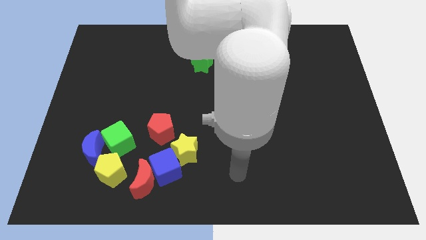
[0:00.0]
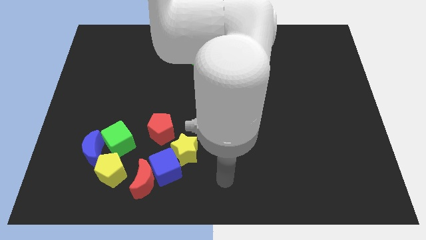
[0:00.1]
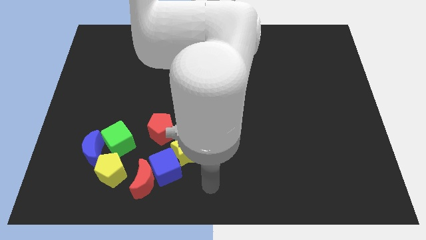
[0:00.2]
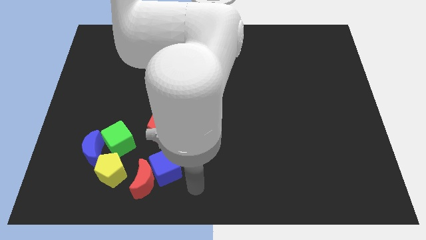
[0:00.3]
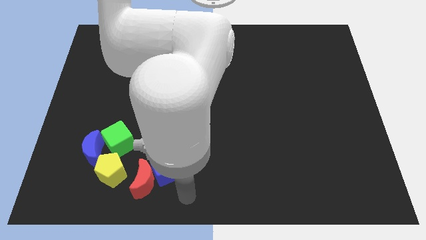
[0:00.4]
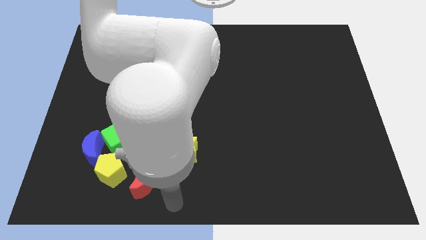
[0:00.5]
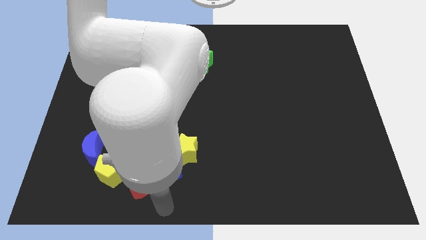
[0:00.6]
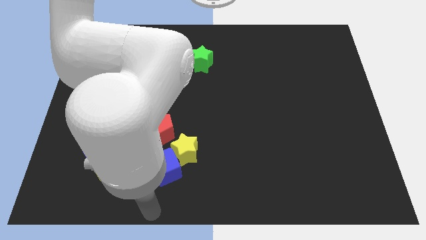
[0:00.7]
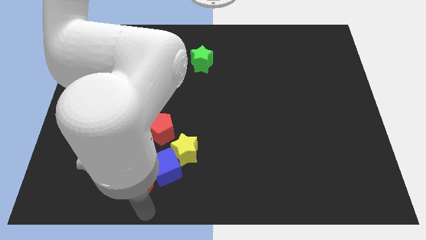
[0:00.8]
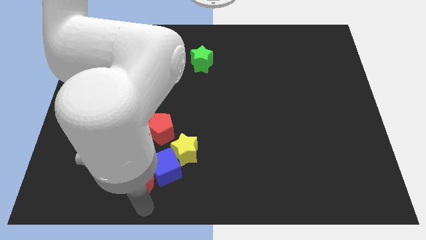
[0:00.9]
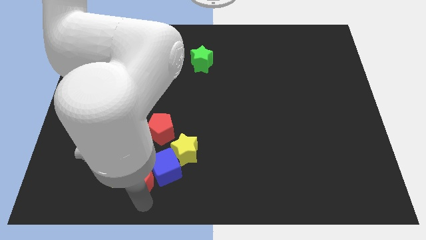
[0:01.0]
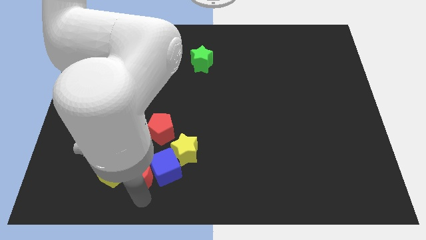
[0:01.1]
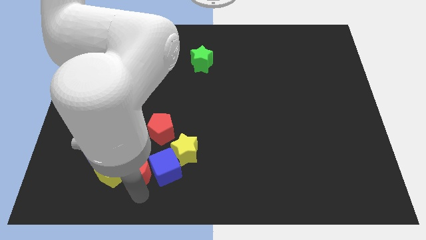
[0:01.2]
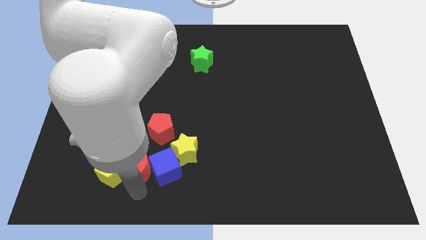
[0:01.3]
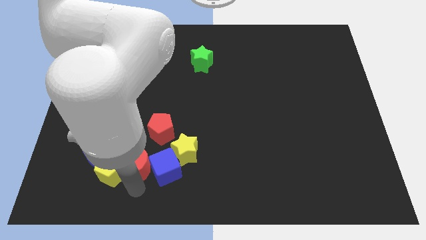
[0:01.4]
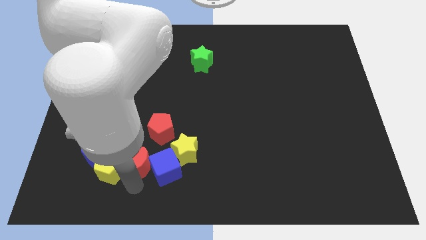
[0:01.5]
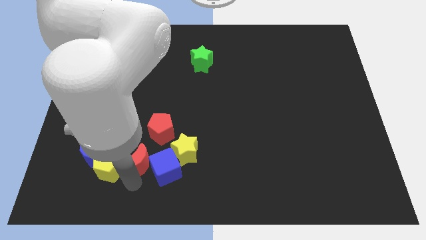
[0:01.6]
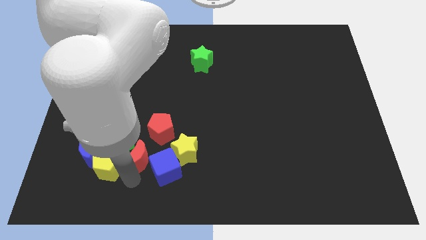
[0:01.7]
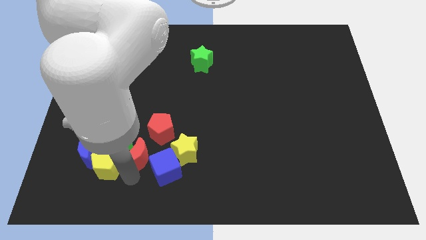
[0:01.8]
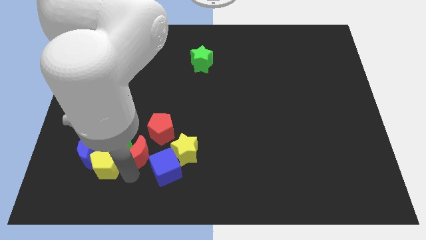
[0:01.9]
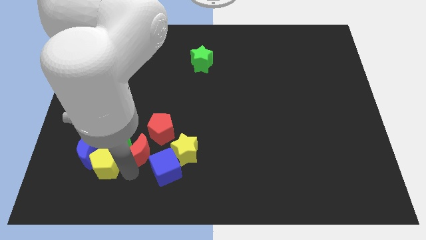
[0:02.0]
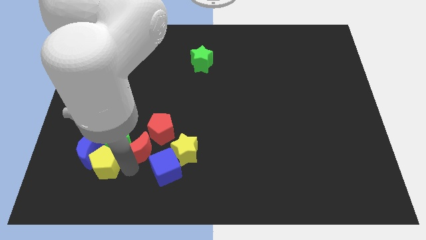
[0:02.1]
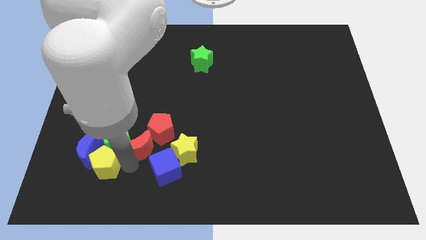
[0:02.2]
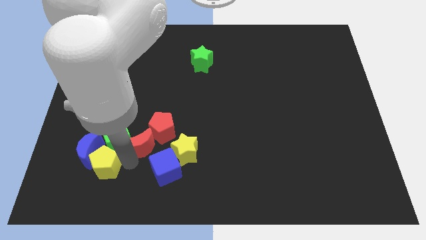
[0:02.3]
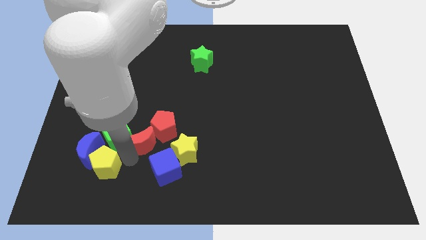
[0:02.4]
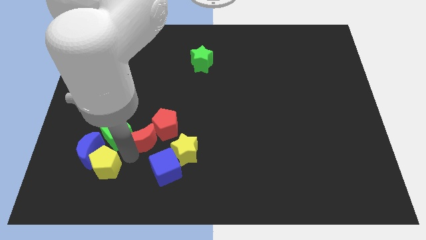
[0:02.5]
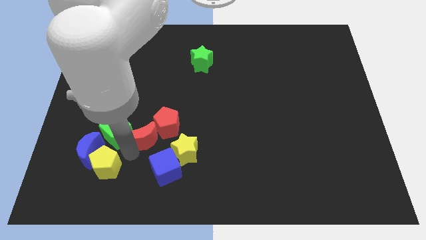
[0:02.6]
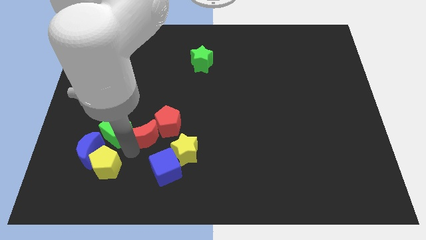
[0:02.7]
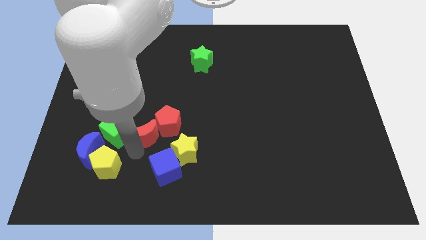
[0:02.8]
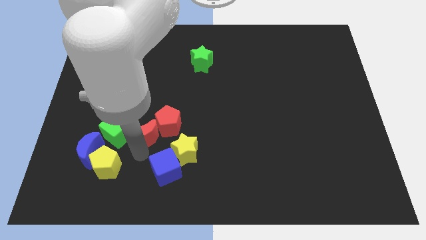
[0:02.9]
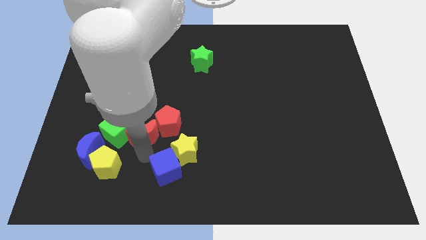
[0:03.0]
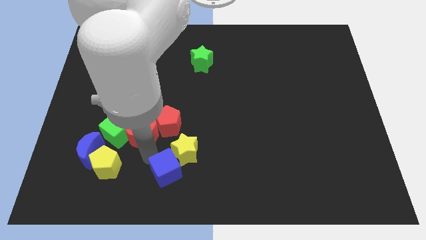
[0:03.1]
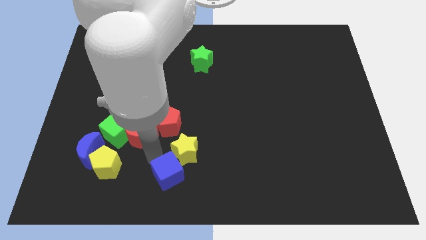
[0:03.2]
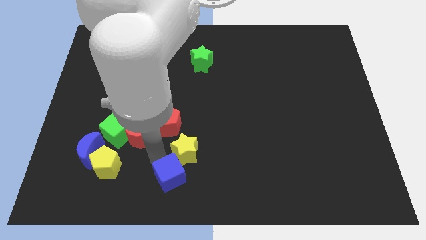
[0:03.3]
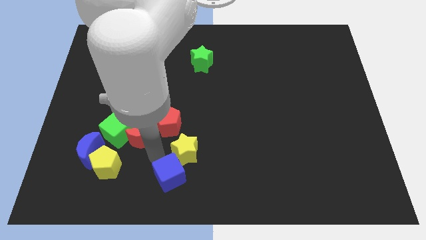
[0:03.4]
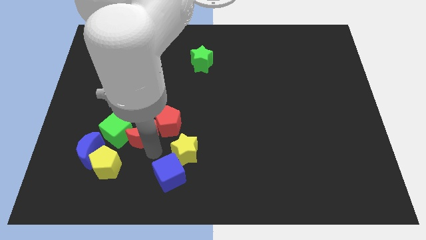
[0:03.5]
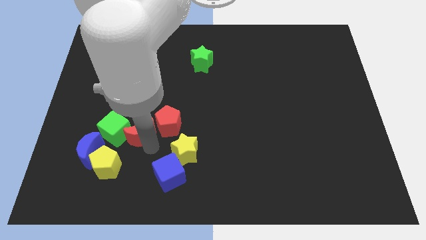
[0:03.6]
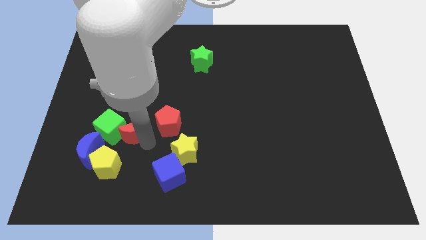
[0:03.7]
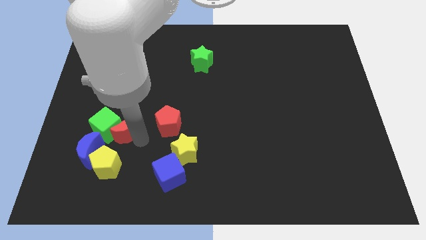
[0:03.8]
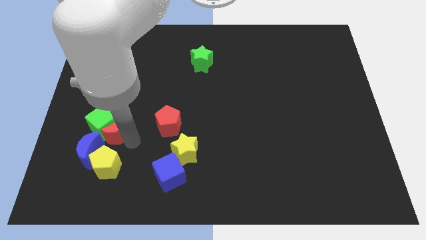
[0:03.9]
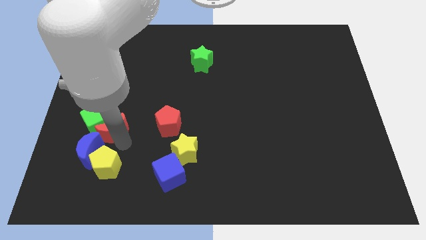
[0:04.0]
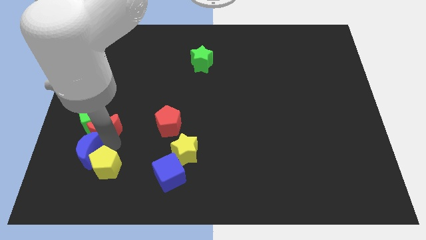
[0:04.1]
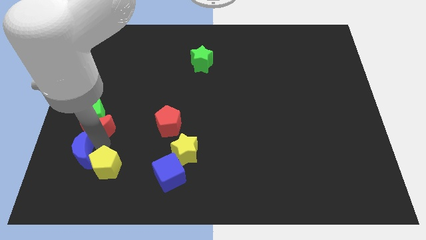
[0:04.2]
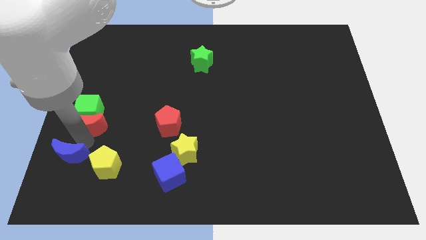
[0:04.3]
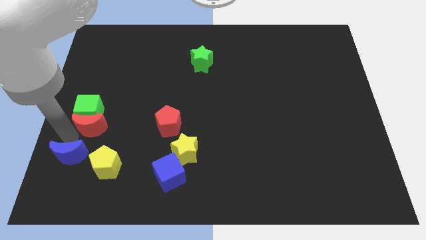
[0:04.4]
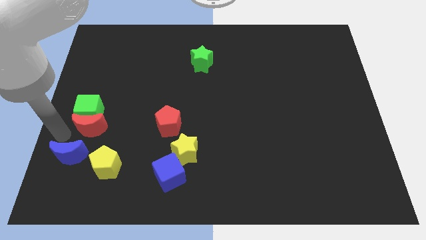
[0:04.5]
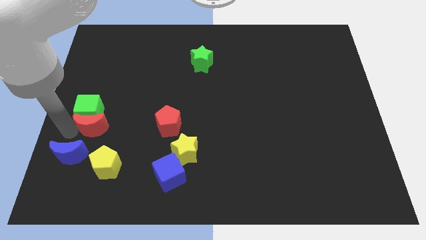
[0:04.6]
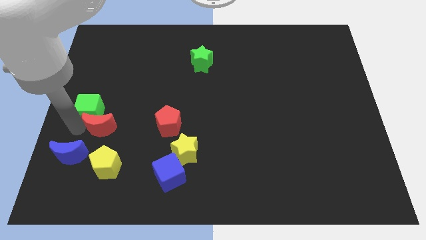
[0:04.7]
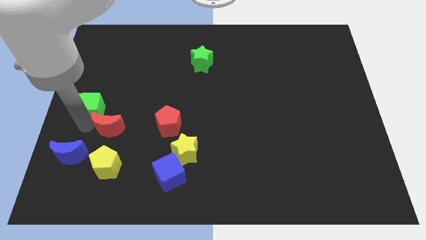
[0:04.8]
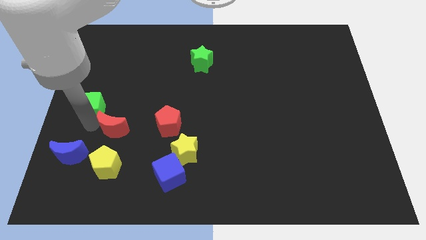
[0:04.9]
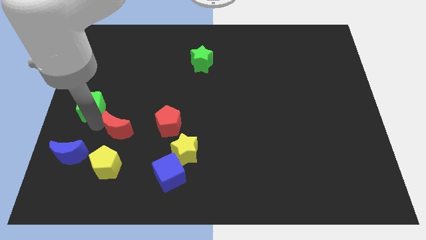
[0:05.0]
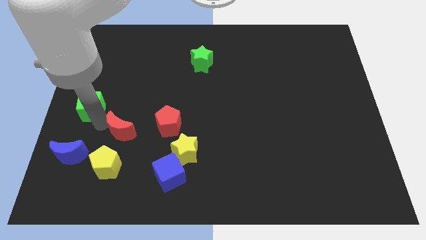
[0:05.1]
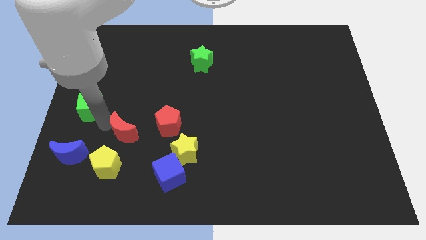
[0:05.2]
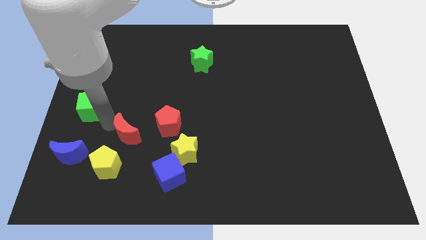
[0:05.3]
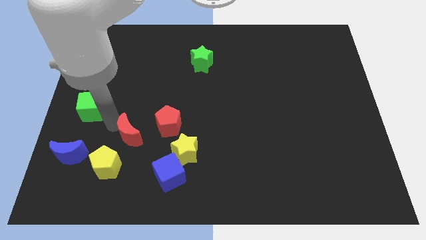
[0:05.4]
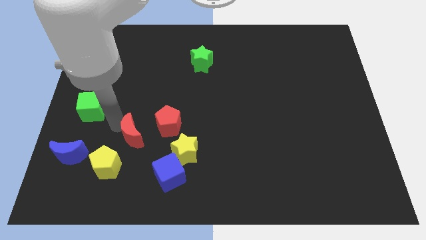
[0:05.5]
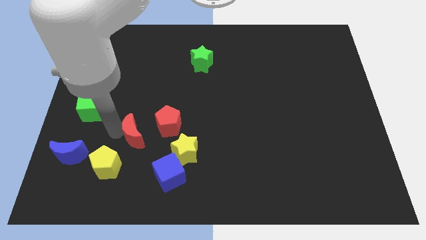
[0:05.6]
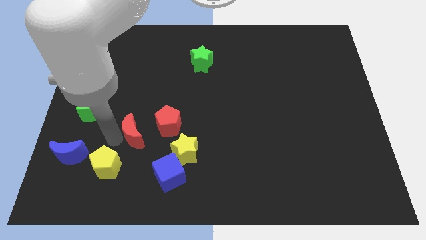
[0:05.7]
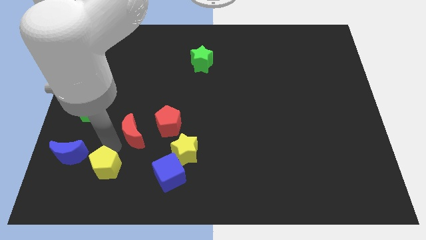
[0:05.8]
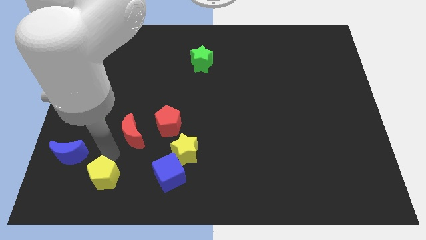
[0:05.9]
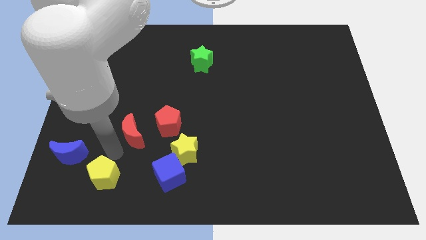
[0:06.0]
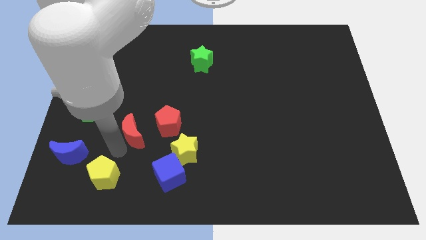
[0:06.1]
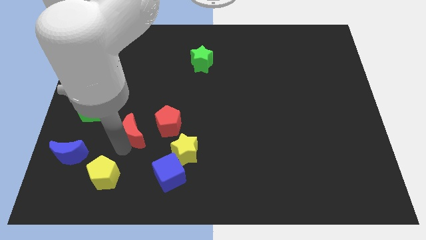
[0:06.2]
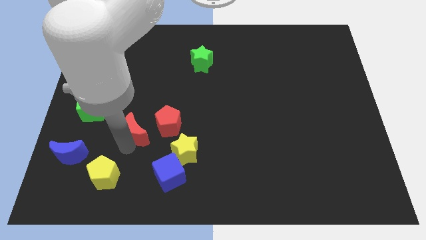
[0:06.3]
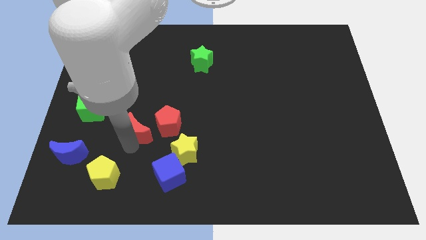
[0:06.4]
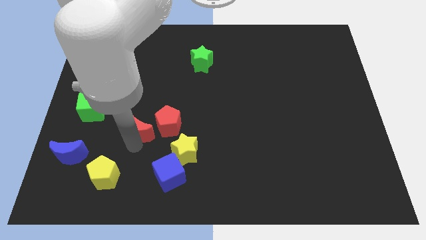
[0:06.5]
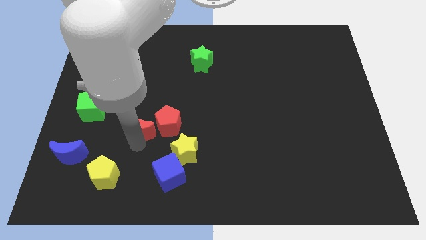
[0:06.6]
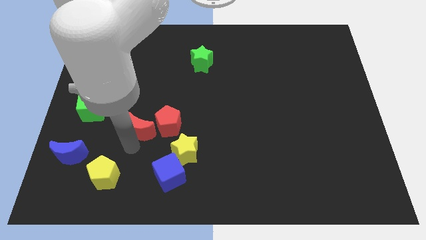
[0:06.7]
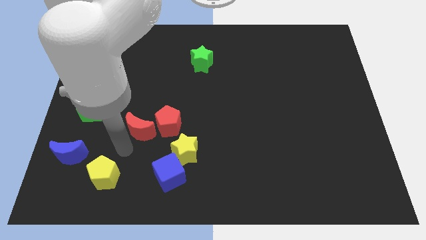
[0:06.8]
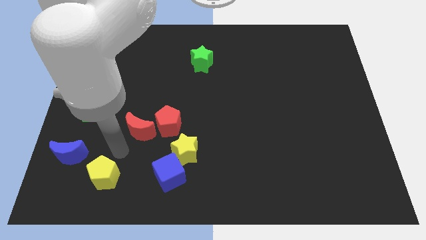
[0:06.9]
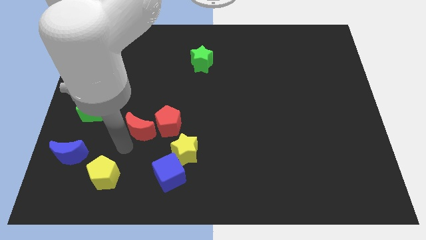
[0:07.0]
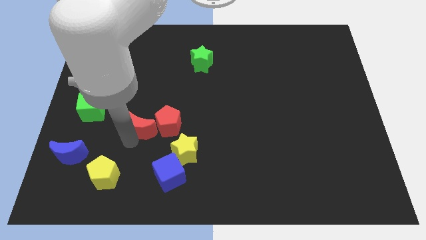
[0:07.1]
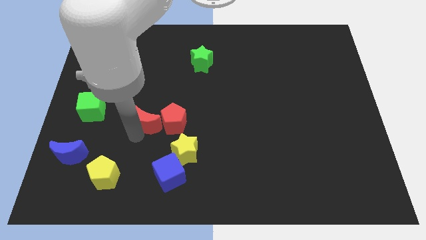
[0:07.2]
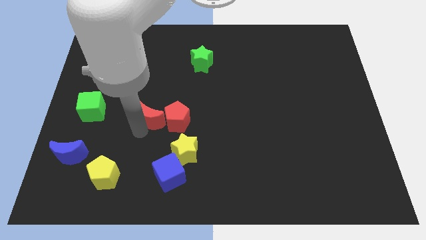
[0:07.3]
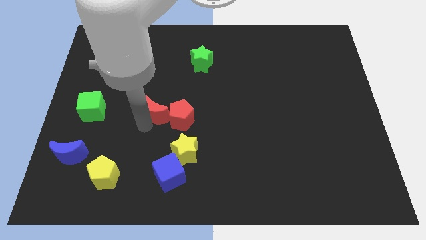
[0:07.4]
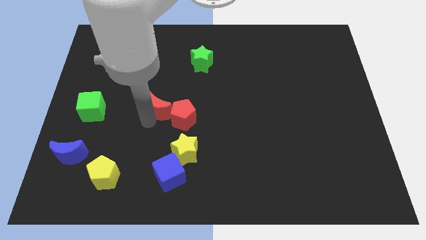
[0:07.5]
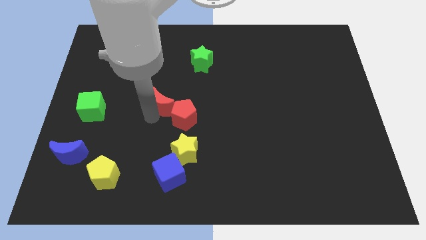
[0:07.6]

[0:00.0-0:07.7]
slide the red moon to the center
